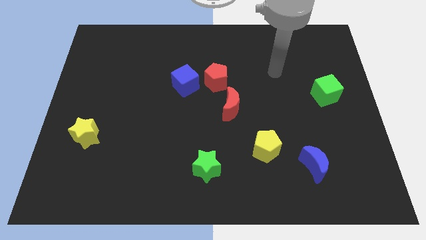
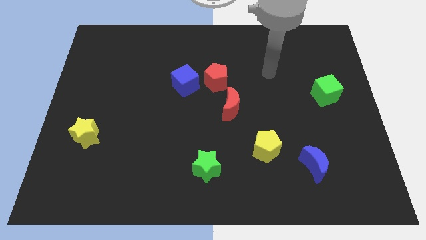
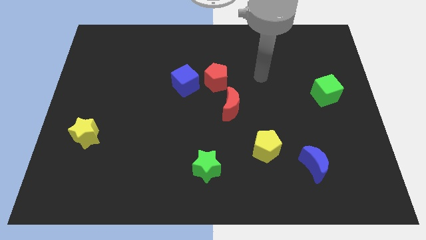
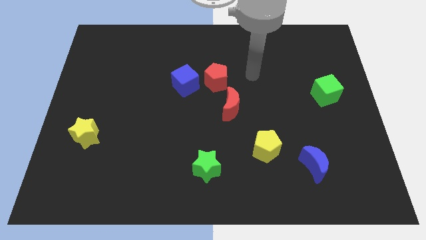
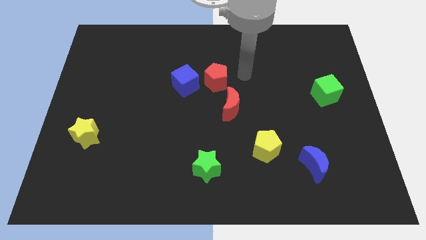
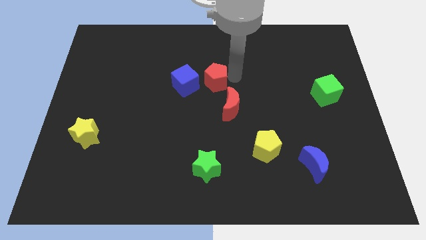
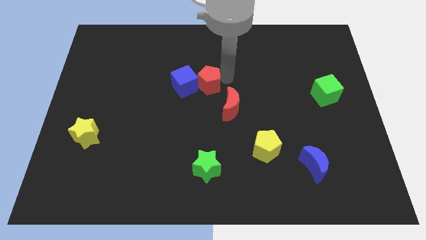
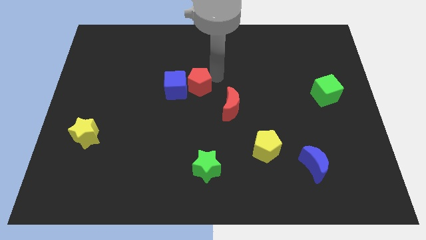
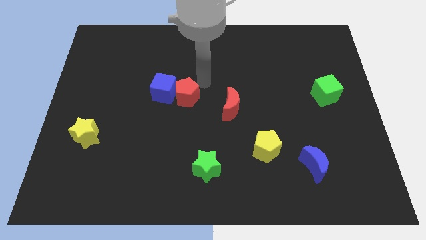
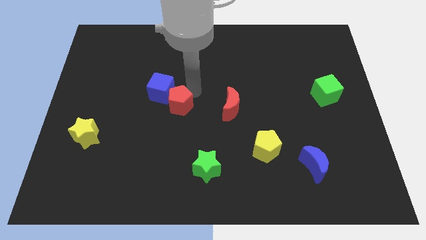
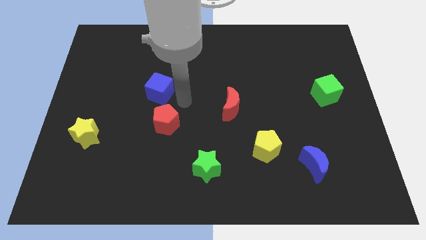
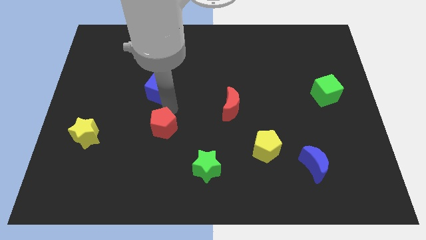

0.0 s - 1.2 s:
move the blue cube away from the red pentagon

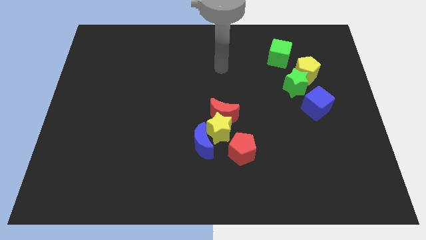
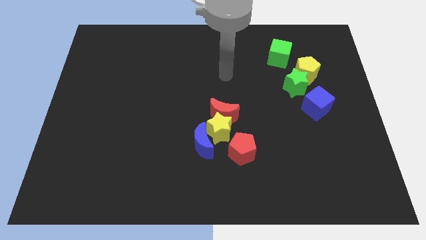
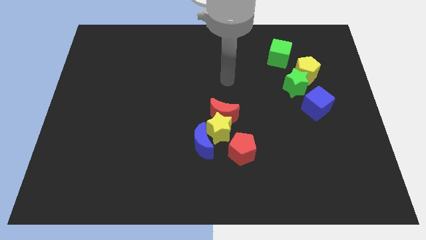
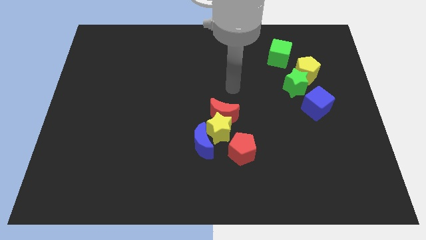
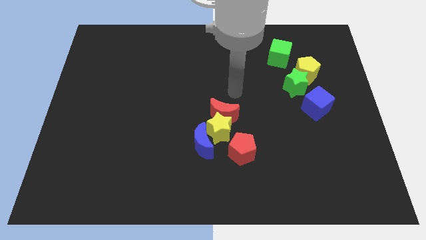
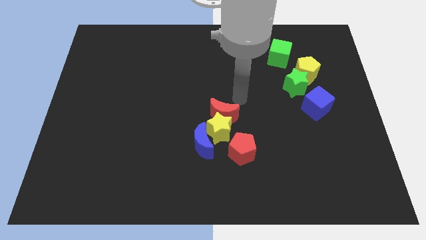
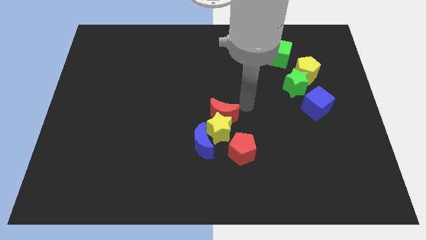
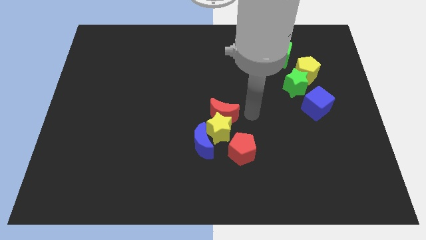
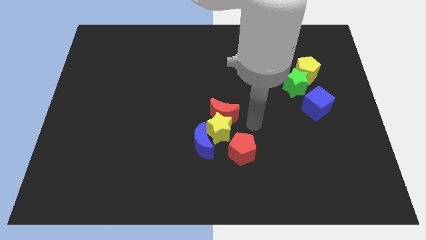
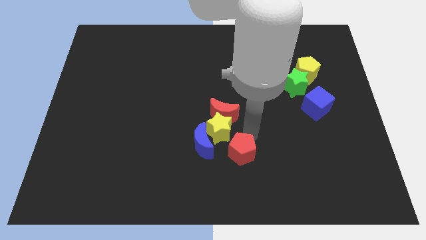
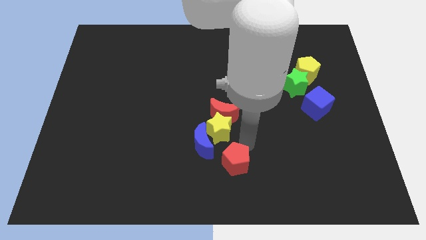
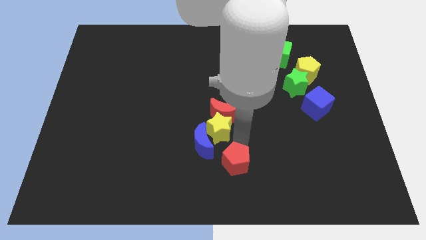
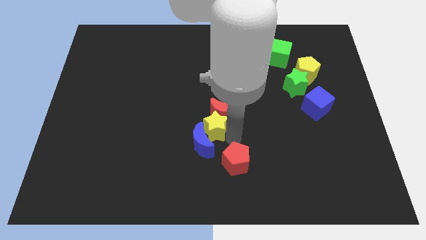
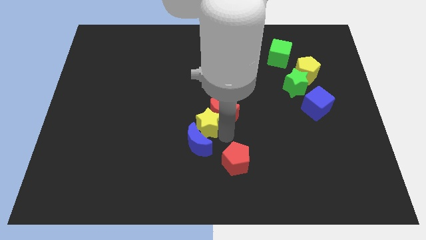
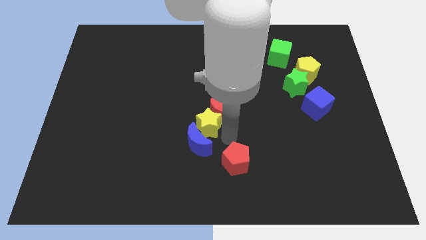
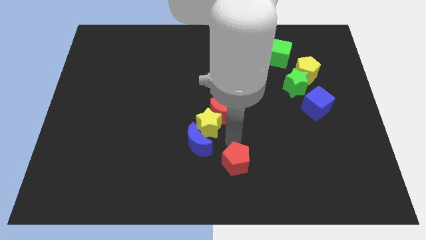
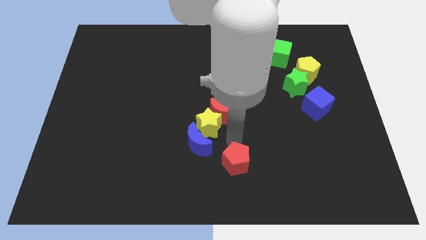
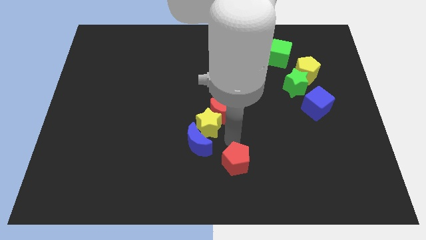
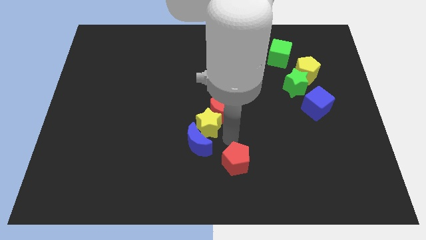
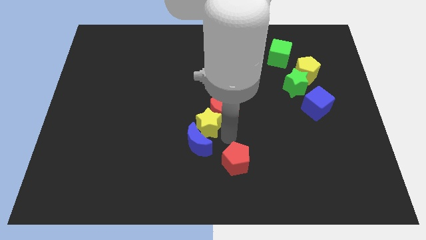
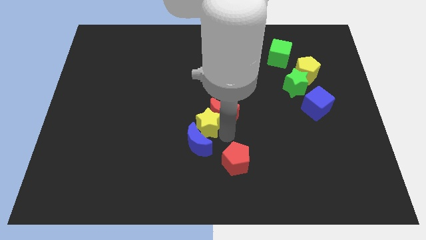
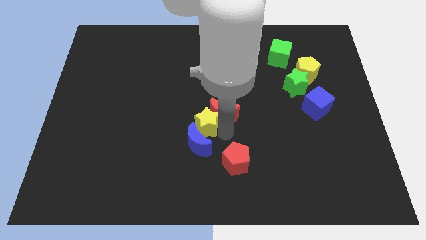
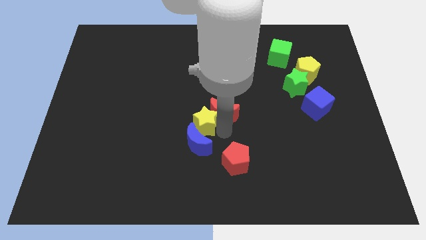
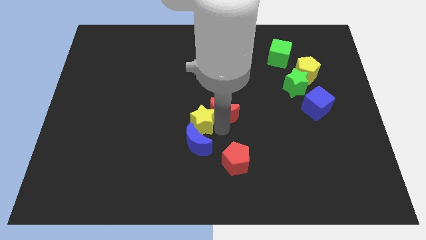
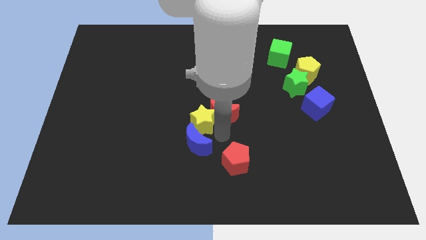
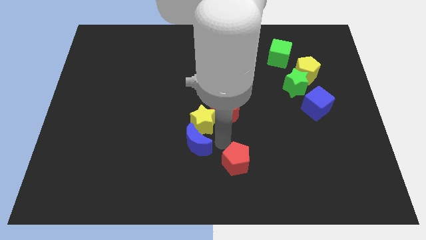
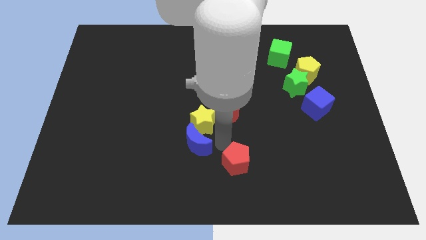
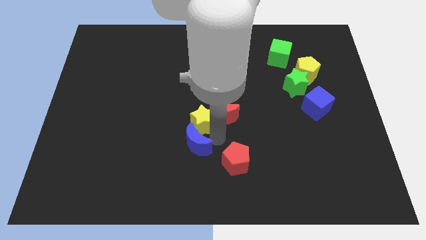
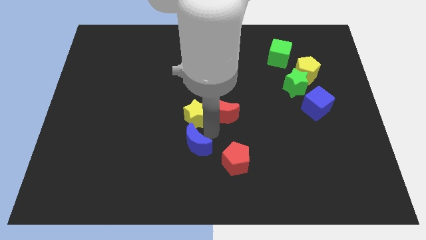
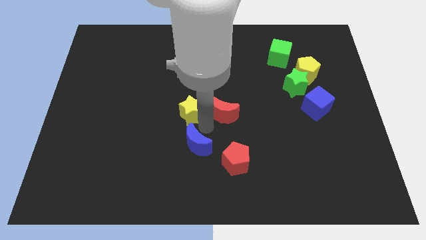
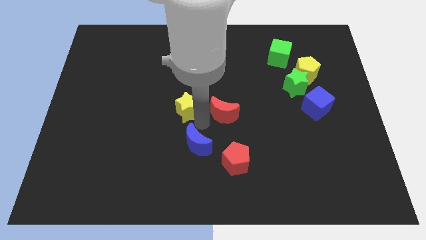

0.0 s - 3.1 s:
move the yellow star away from the clump

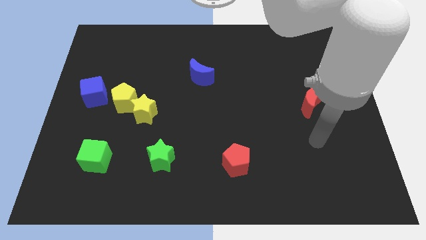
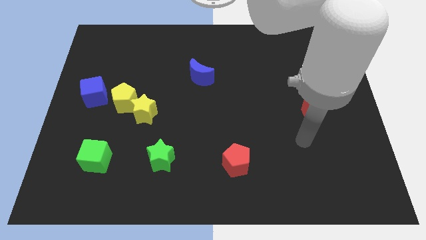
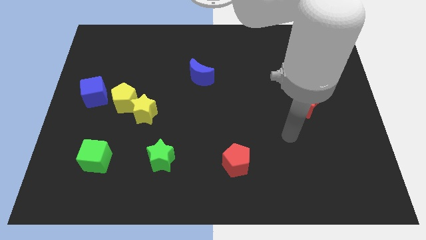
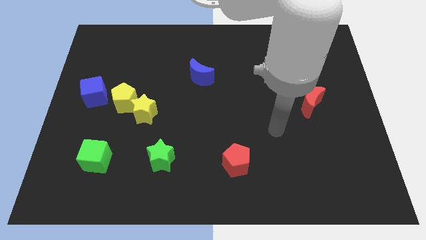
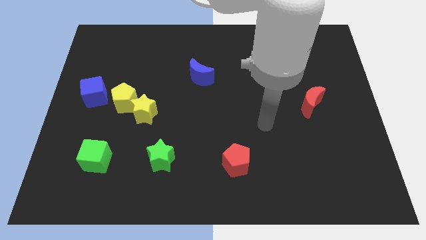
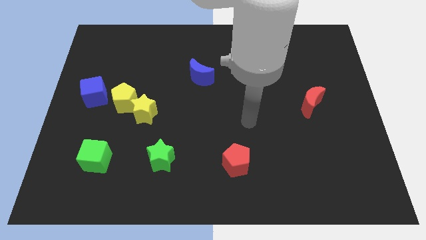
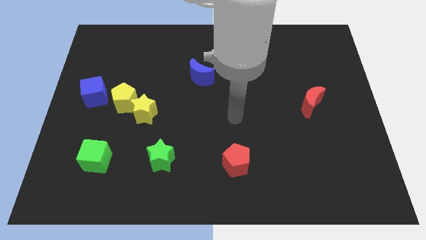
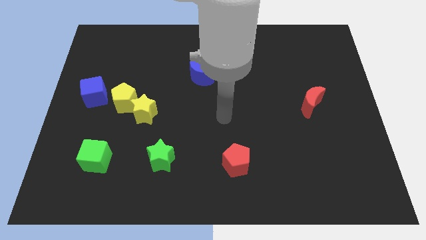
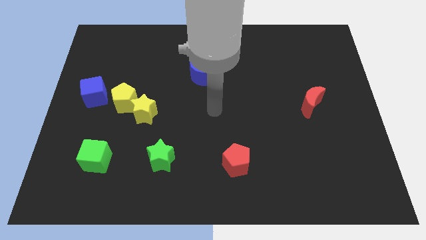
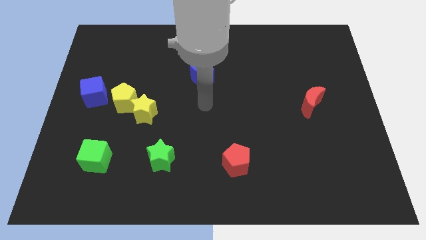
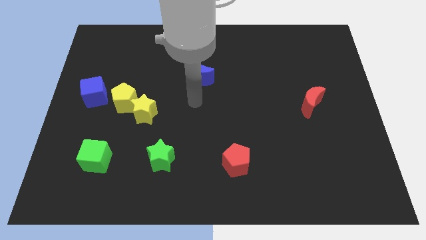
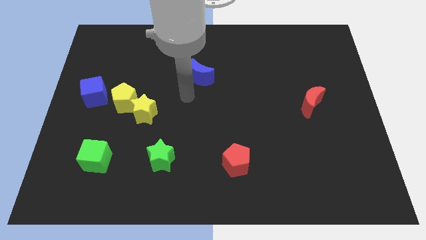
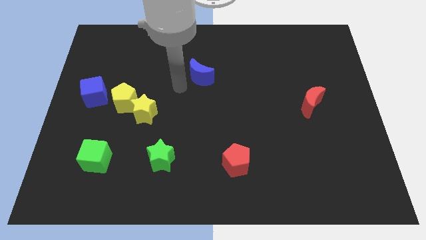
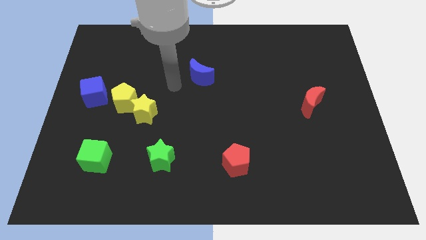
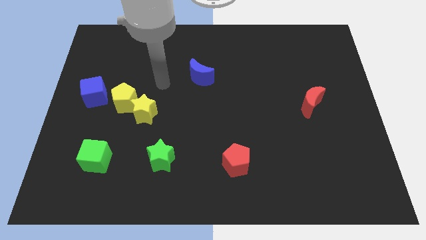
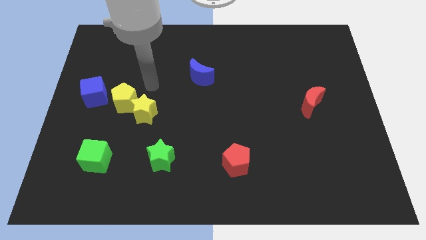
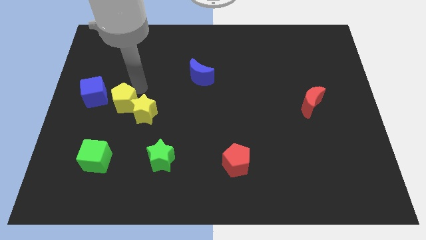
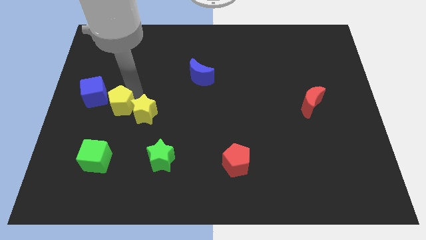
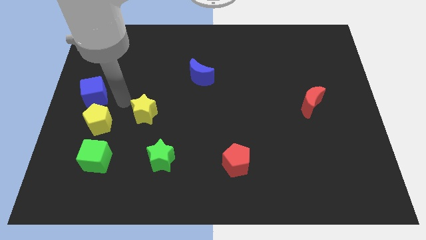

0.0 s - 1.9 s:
pull the yellow star apart from the yellow pentagon

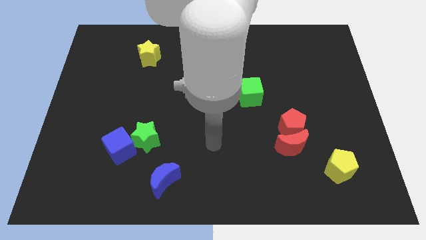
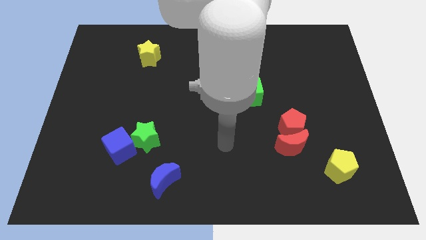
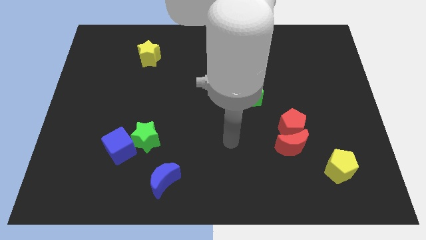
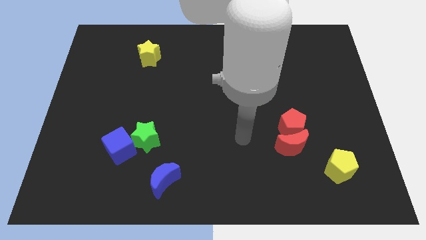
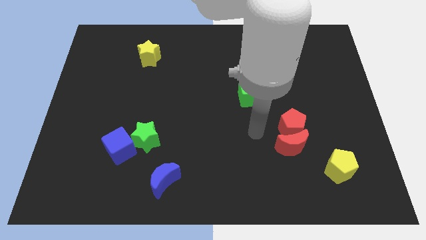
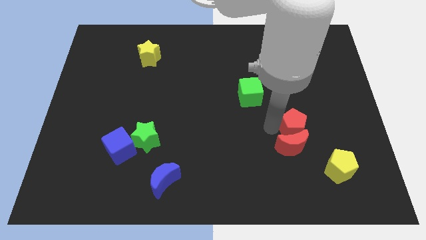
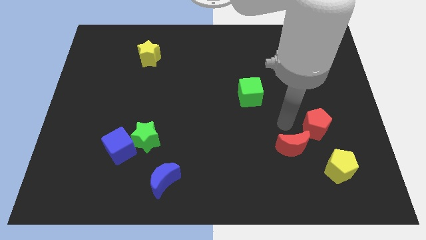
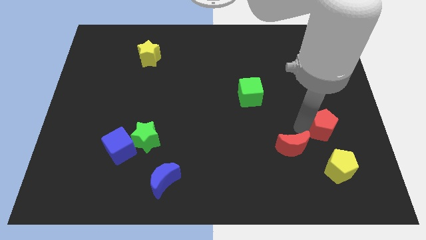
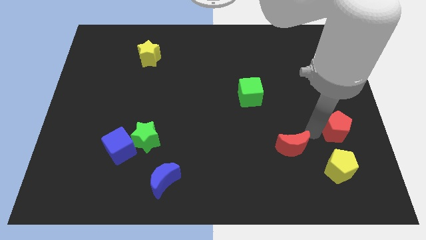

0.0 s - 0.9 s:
separate the red moon from the red pentagon

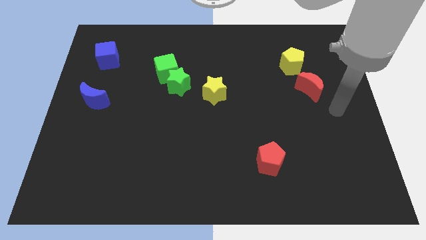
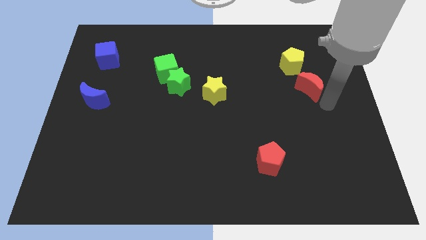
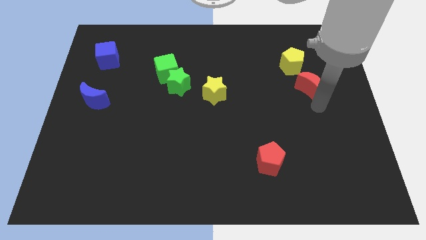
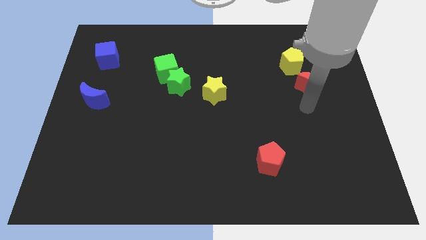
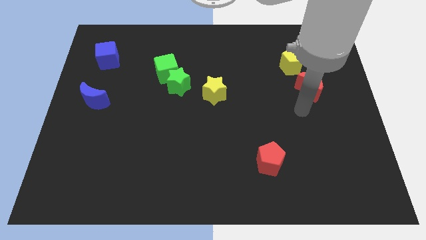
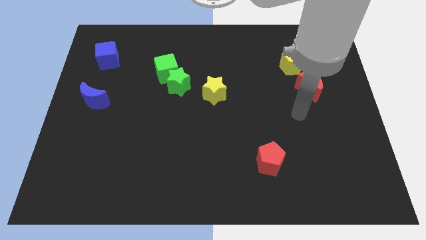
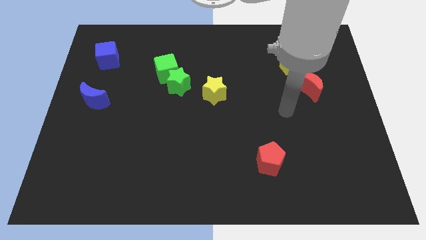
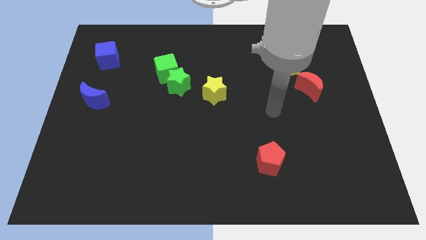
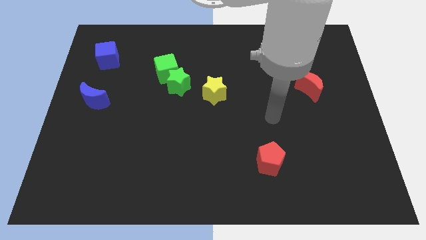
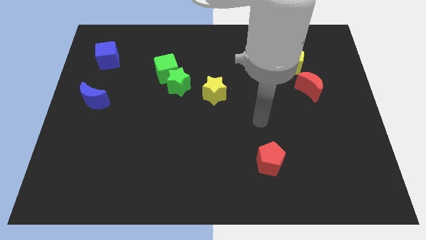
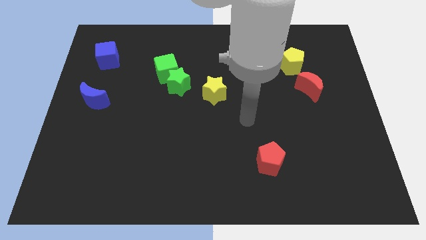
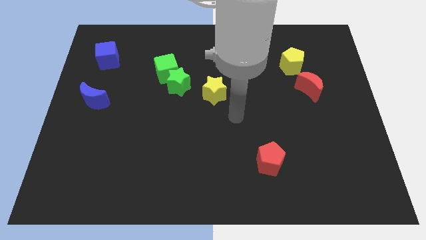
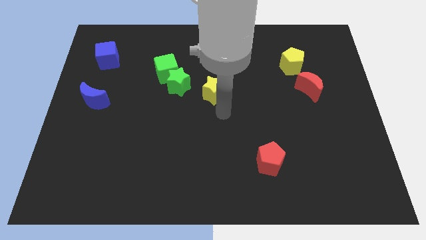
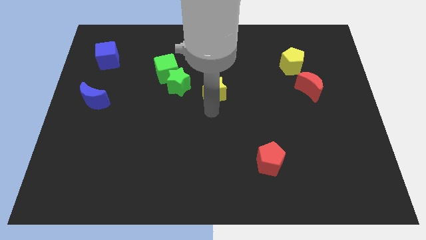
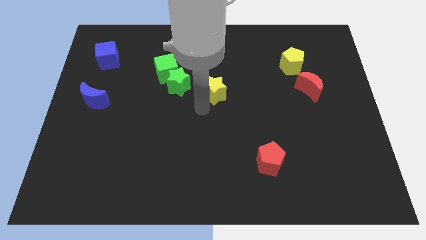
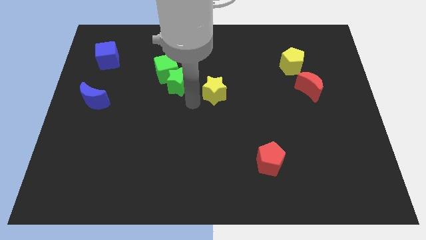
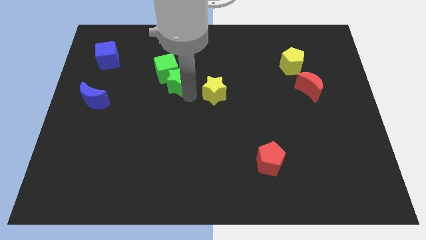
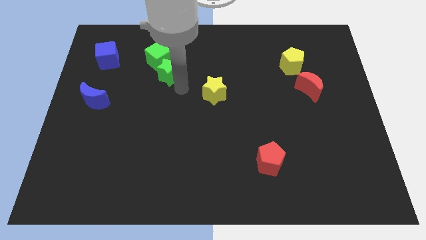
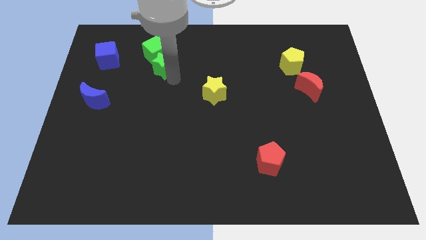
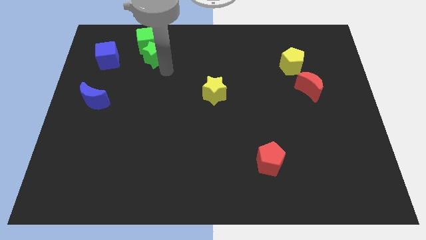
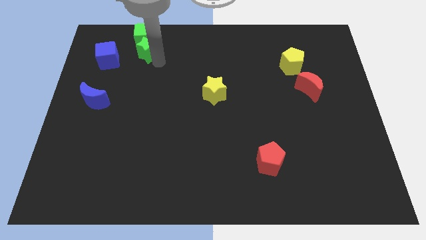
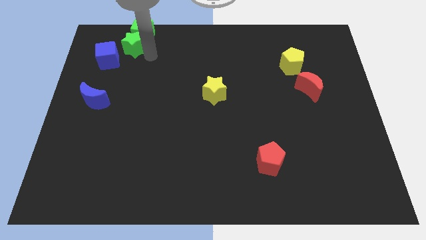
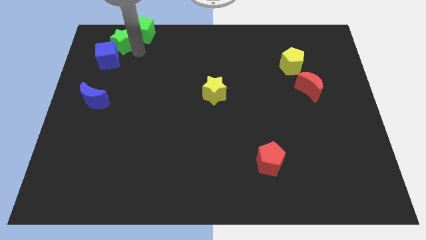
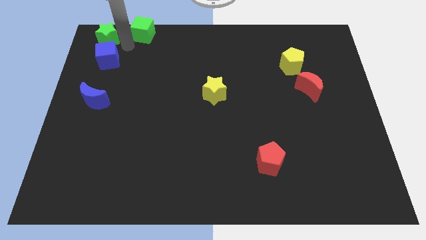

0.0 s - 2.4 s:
pull the green cube apart from the green star
